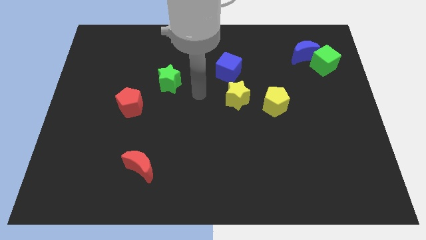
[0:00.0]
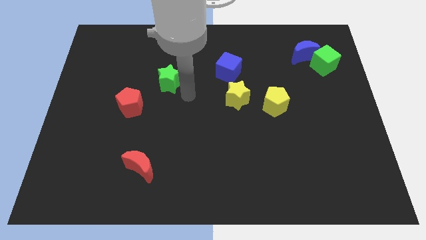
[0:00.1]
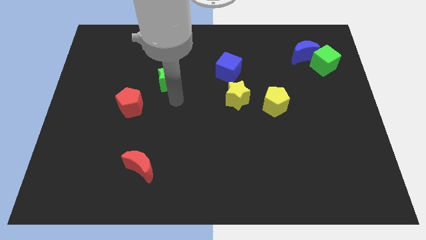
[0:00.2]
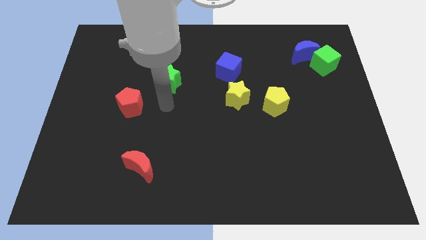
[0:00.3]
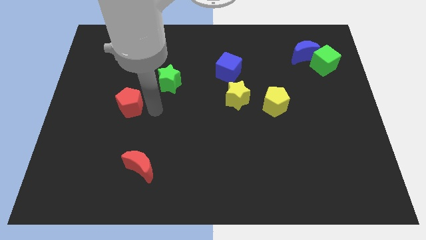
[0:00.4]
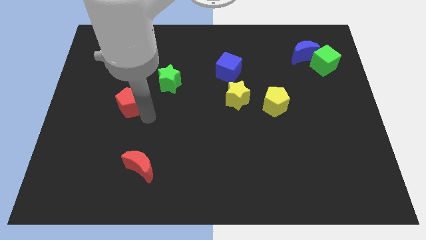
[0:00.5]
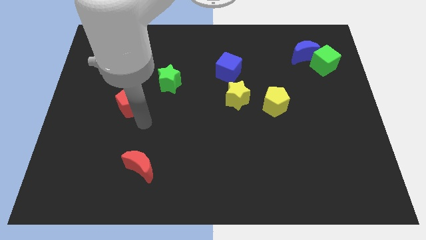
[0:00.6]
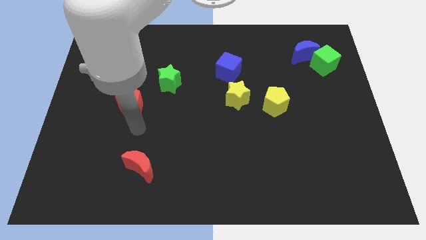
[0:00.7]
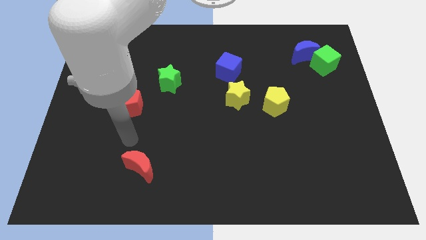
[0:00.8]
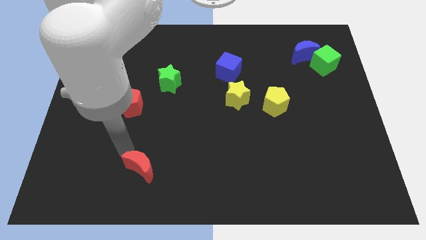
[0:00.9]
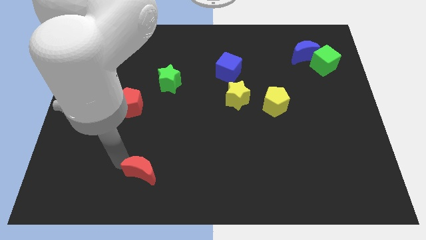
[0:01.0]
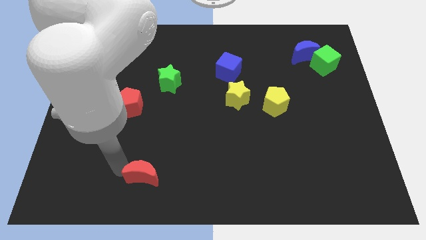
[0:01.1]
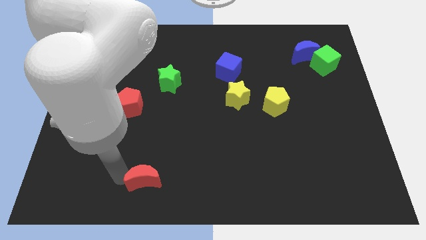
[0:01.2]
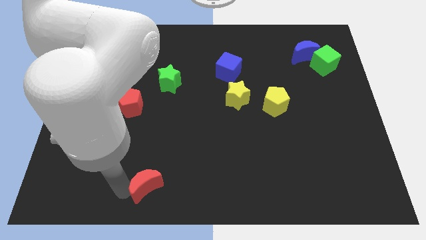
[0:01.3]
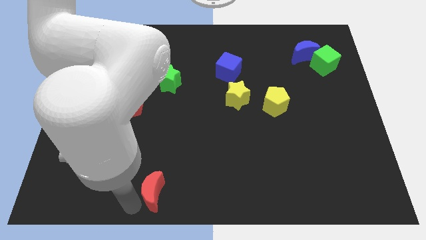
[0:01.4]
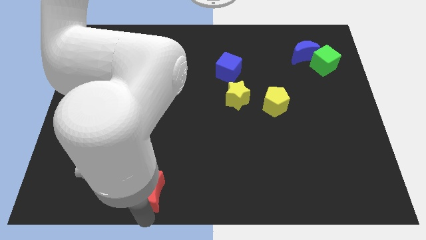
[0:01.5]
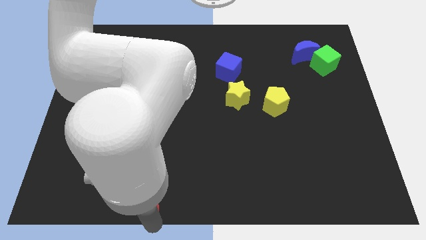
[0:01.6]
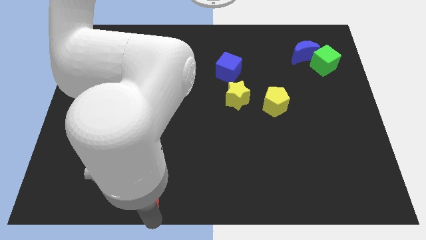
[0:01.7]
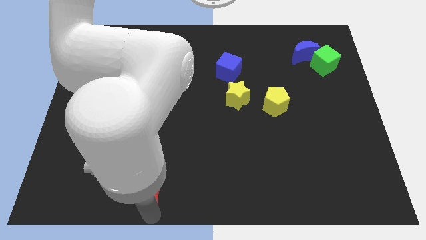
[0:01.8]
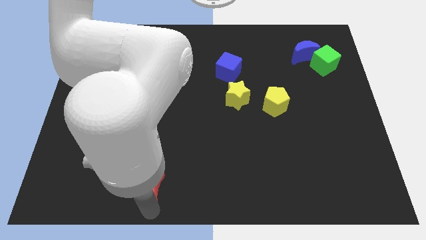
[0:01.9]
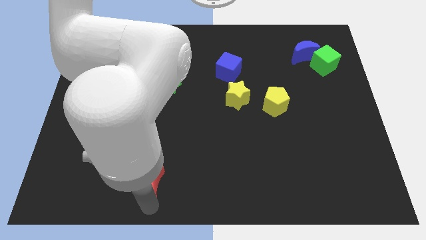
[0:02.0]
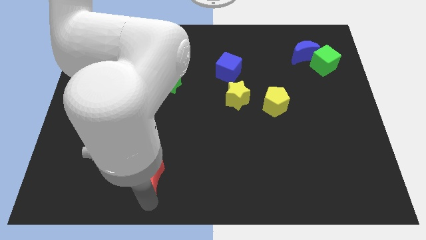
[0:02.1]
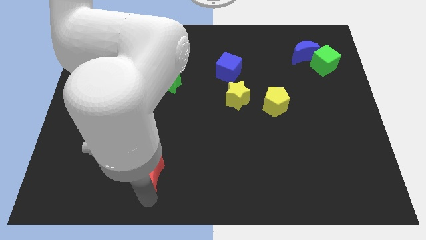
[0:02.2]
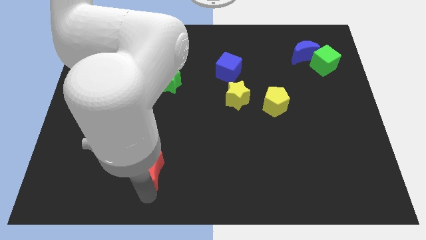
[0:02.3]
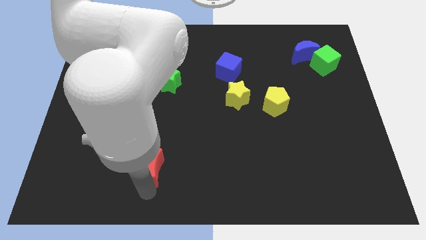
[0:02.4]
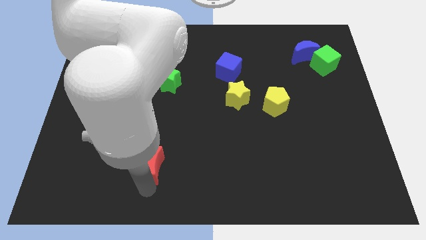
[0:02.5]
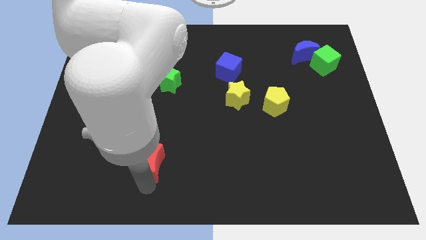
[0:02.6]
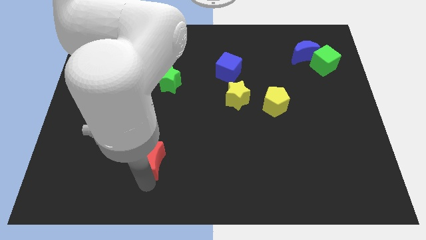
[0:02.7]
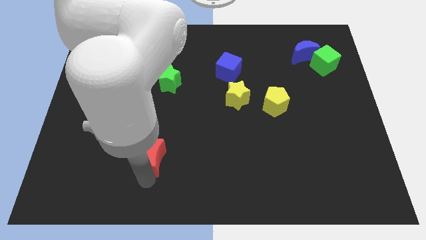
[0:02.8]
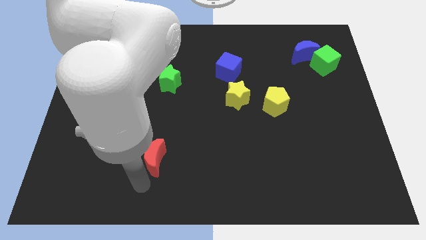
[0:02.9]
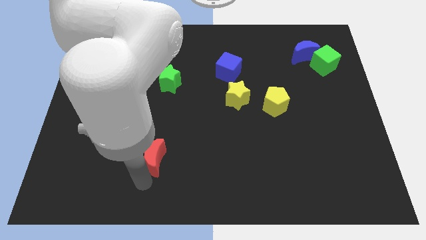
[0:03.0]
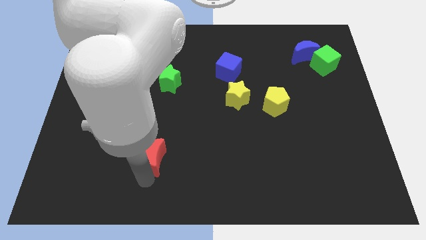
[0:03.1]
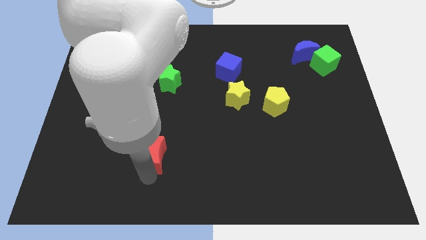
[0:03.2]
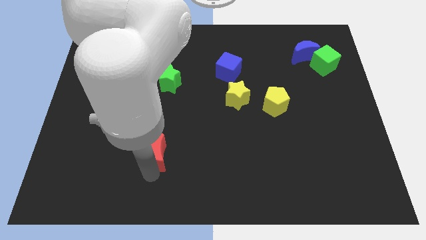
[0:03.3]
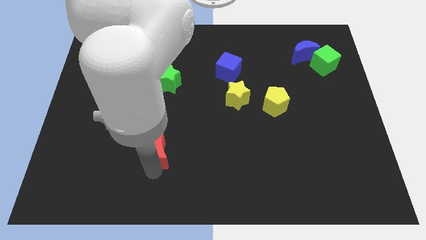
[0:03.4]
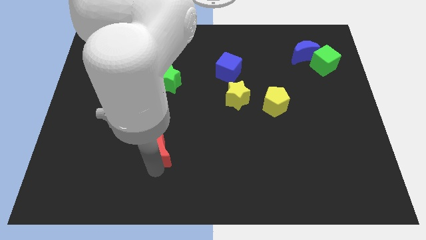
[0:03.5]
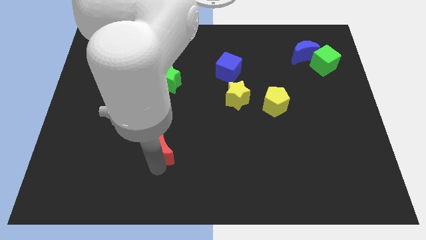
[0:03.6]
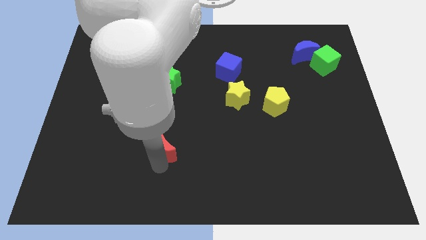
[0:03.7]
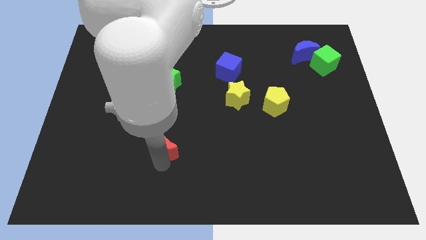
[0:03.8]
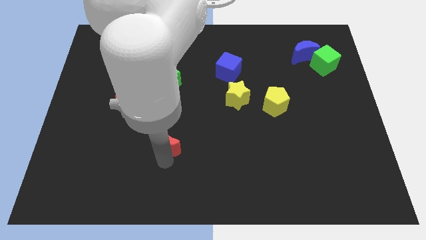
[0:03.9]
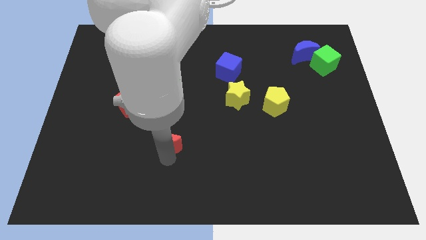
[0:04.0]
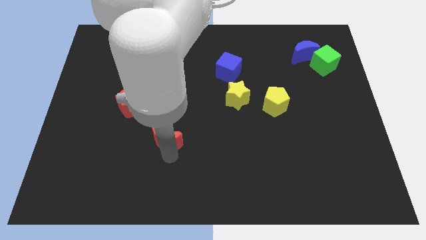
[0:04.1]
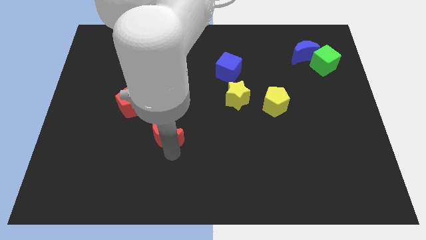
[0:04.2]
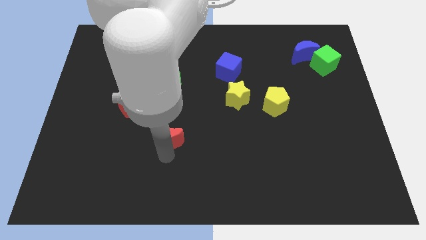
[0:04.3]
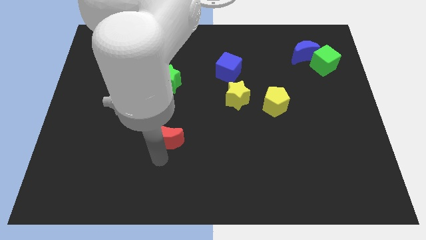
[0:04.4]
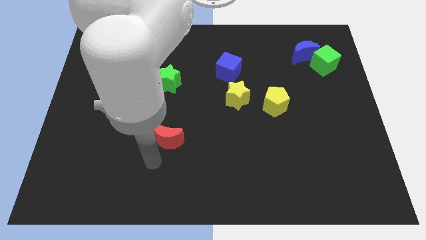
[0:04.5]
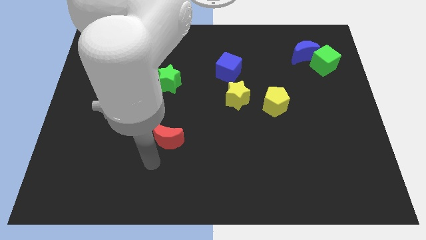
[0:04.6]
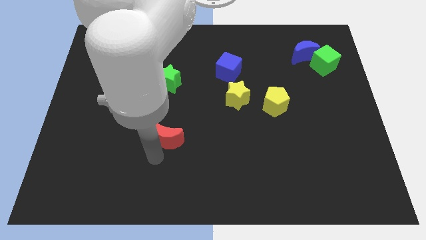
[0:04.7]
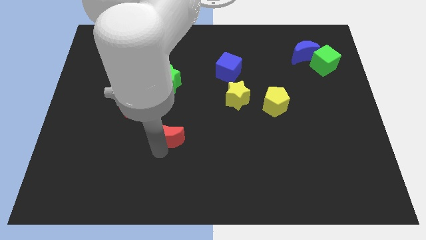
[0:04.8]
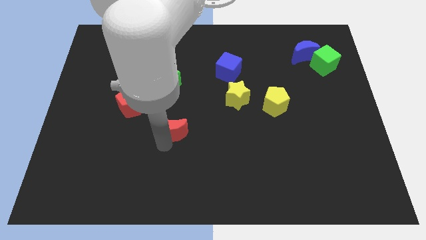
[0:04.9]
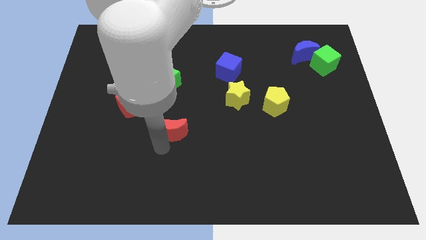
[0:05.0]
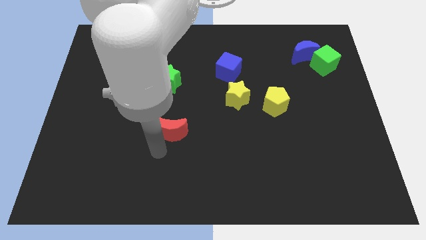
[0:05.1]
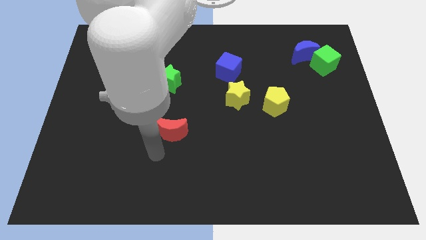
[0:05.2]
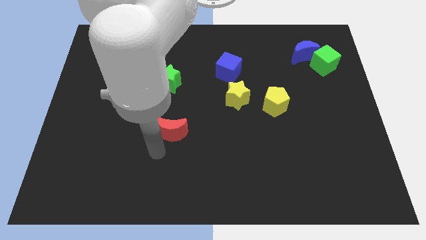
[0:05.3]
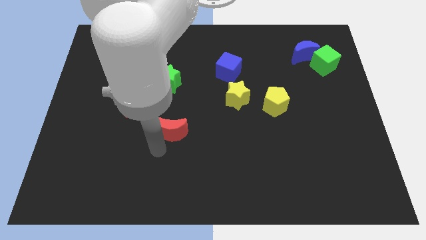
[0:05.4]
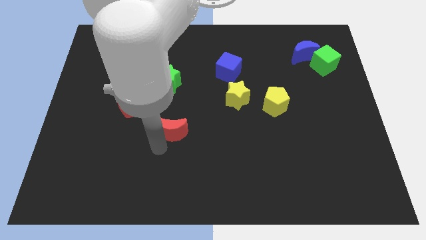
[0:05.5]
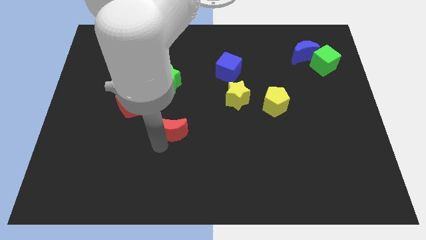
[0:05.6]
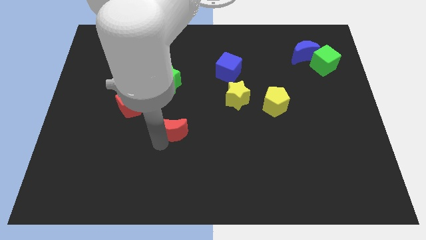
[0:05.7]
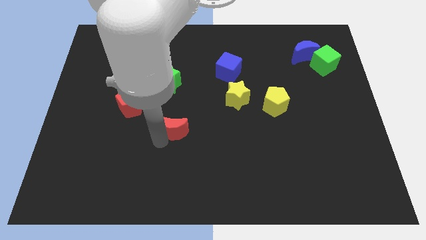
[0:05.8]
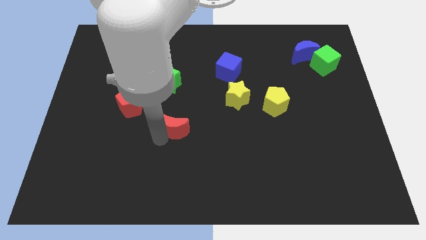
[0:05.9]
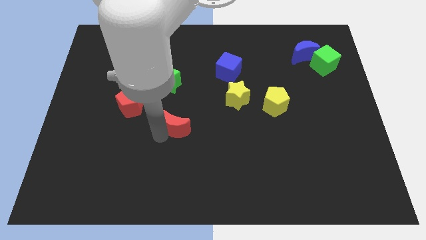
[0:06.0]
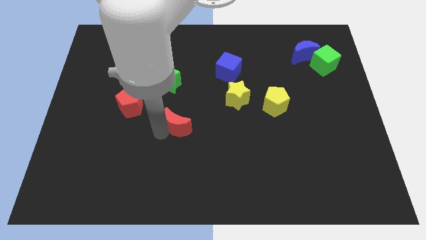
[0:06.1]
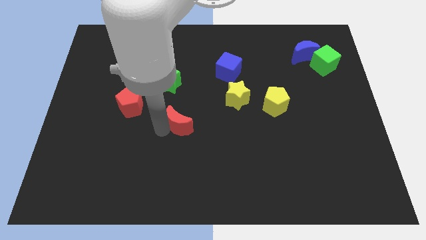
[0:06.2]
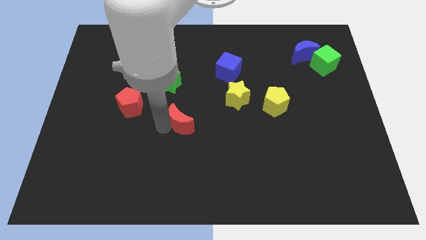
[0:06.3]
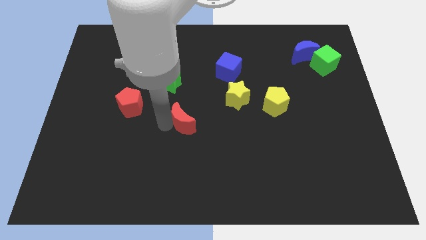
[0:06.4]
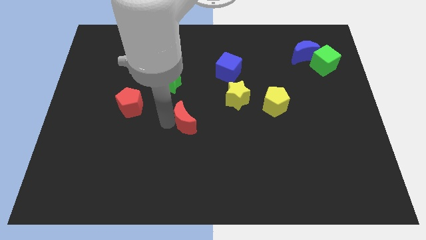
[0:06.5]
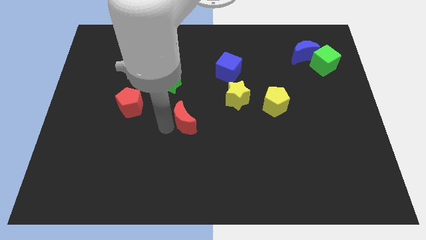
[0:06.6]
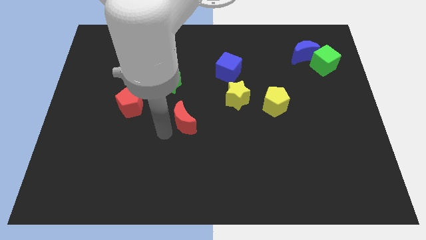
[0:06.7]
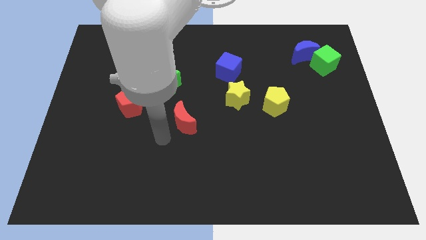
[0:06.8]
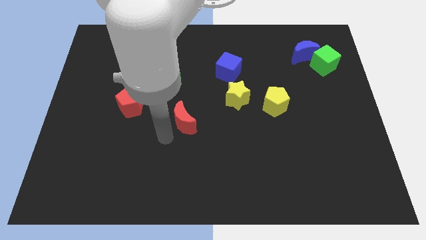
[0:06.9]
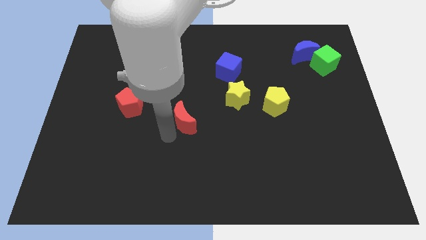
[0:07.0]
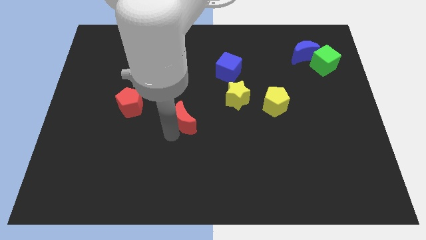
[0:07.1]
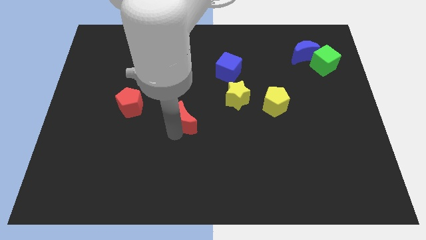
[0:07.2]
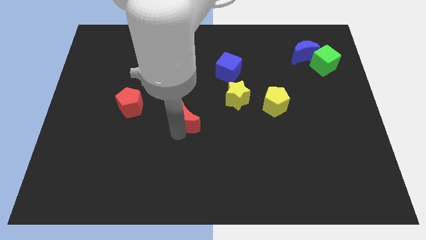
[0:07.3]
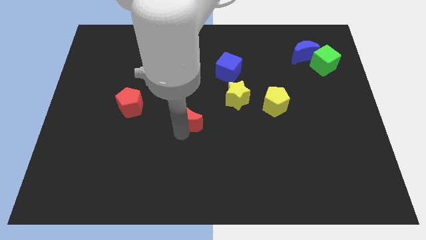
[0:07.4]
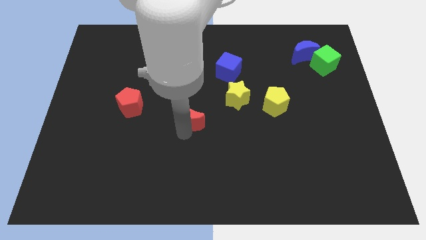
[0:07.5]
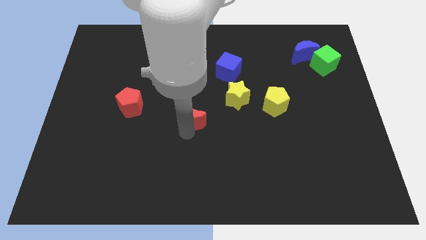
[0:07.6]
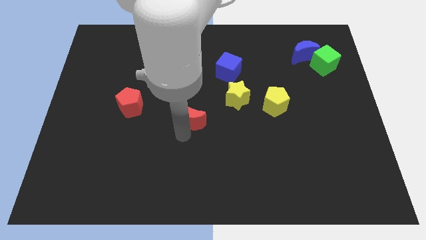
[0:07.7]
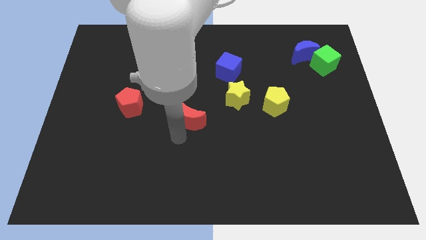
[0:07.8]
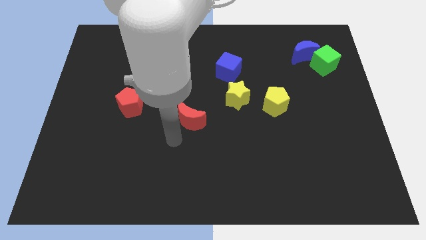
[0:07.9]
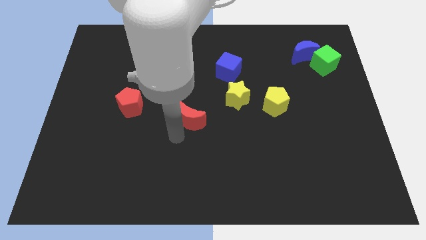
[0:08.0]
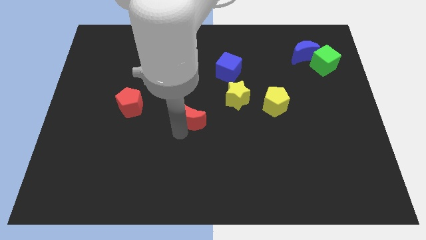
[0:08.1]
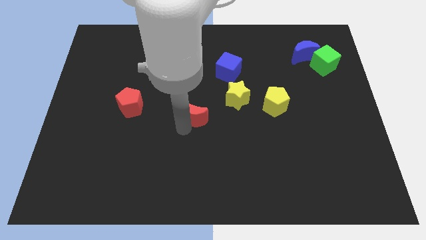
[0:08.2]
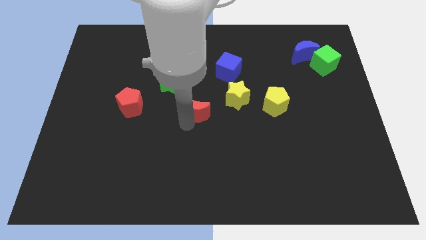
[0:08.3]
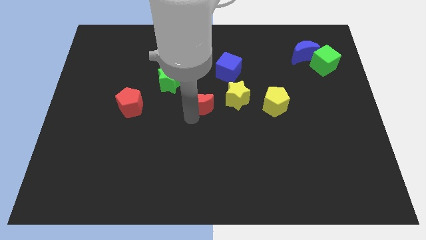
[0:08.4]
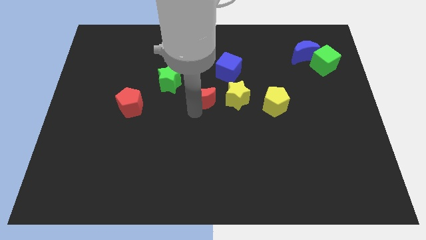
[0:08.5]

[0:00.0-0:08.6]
push the red moon up and then to the right
